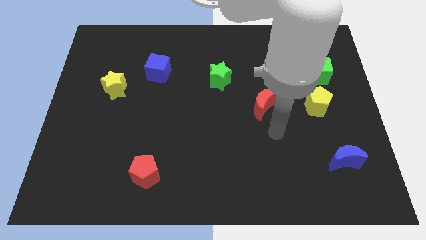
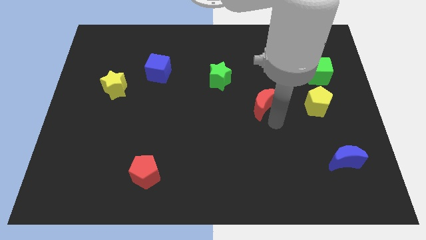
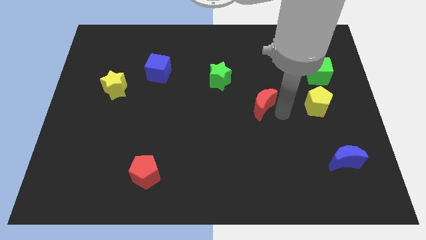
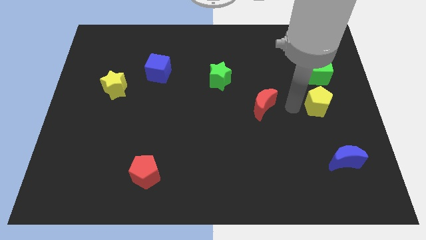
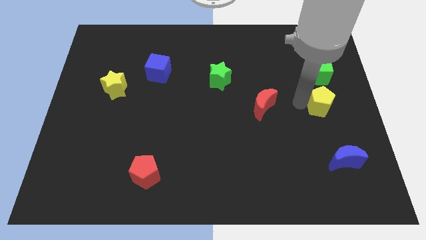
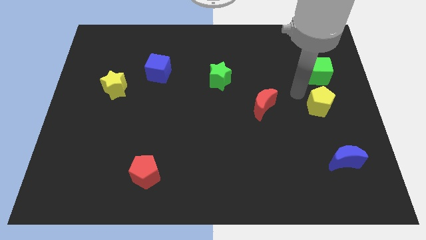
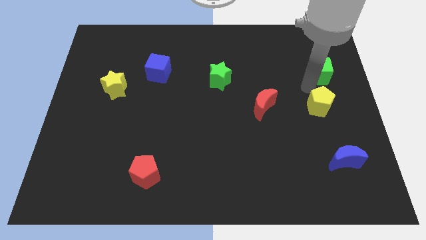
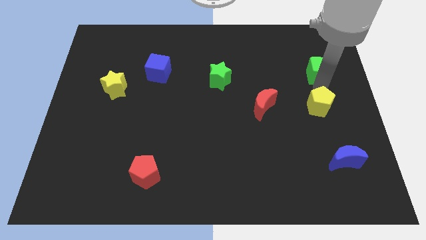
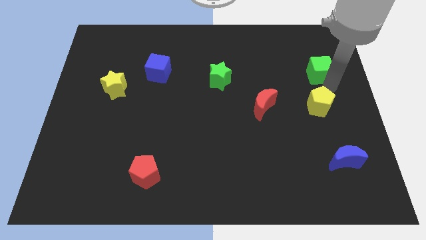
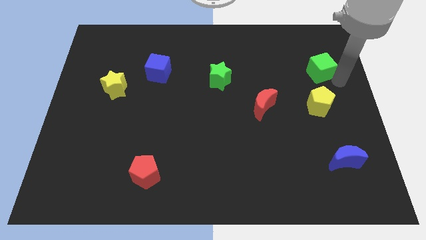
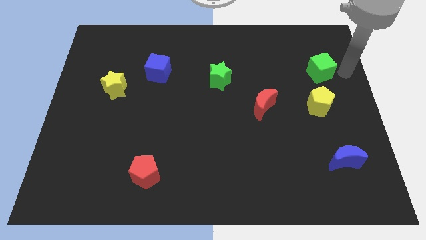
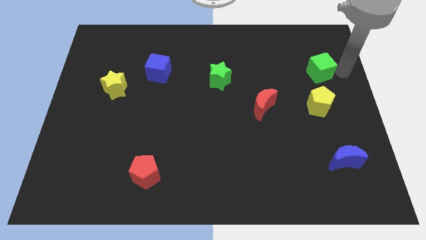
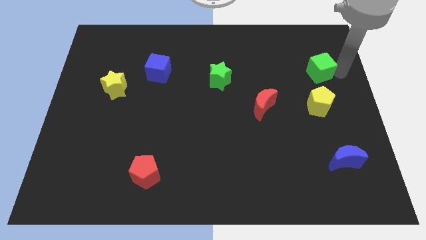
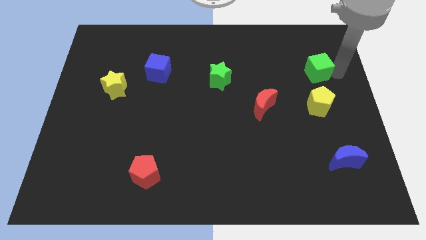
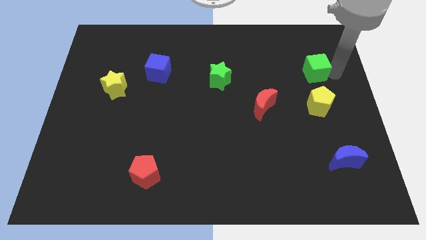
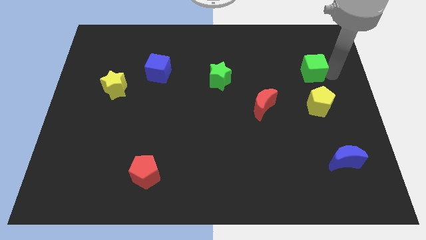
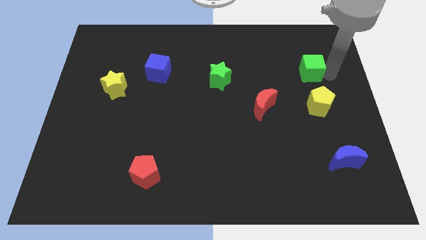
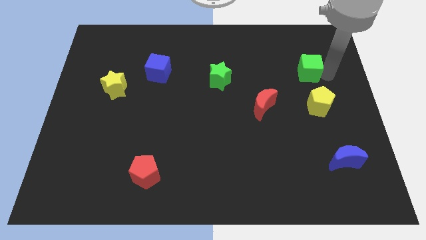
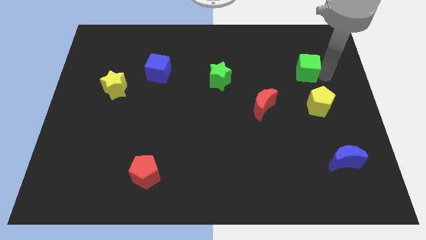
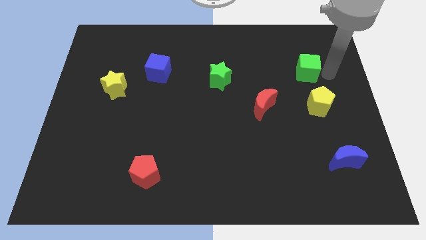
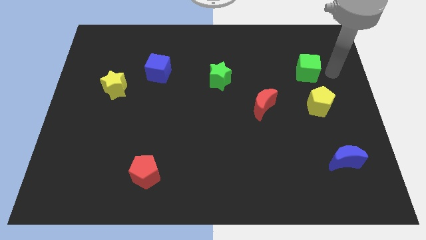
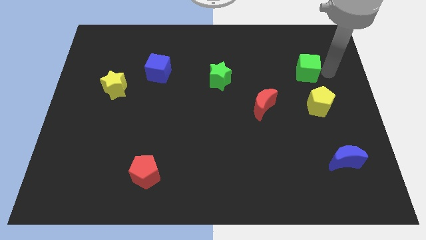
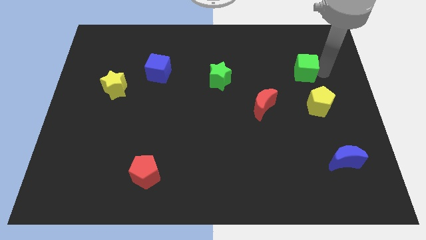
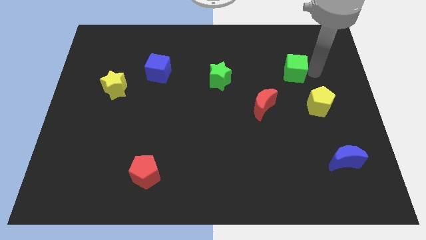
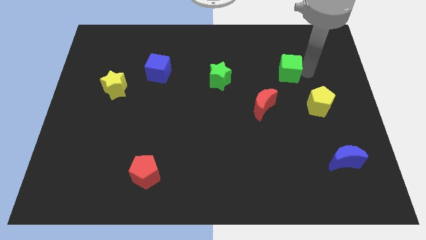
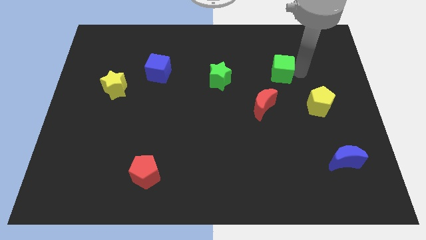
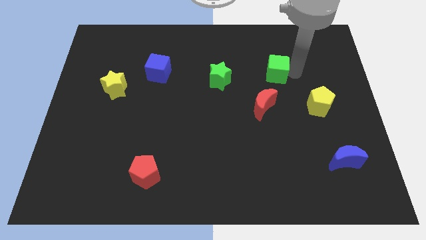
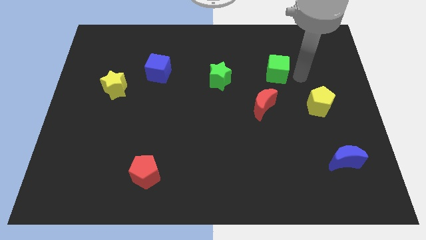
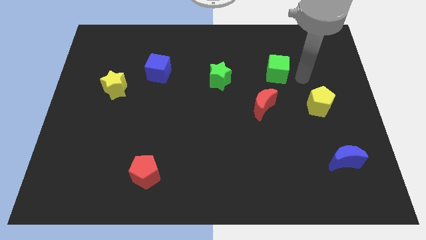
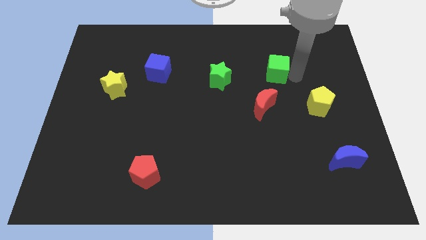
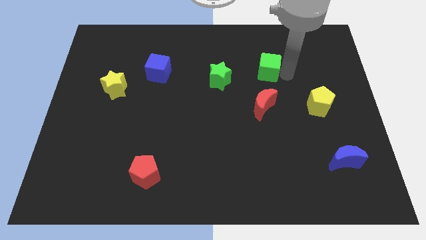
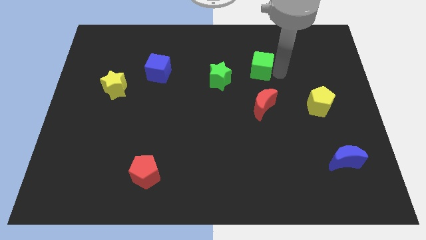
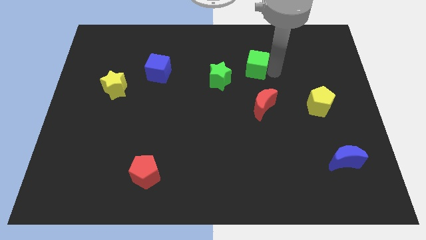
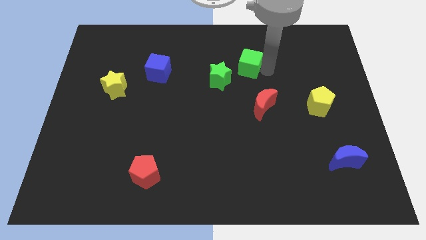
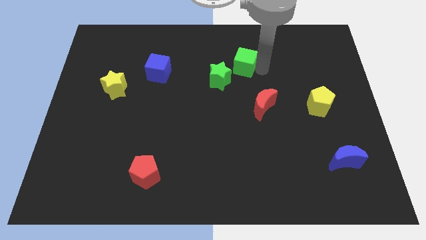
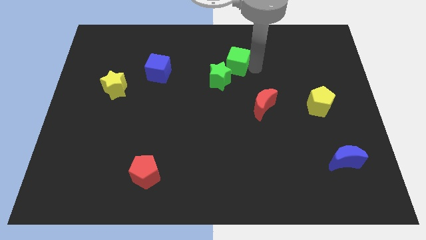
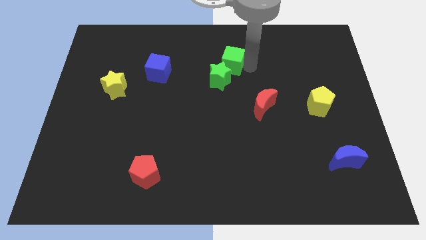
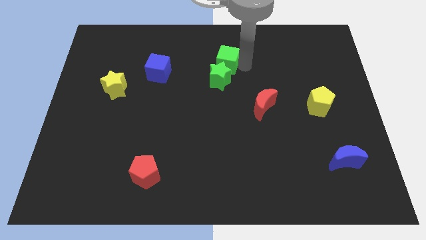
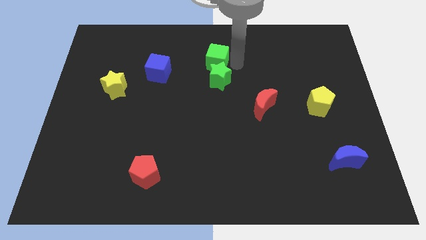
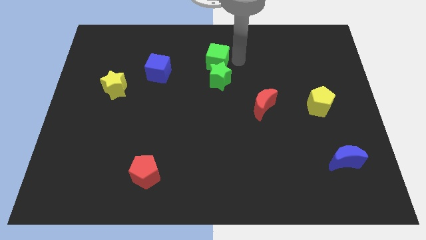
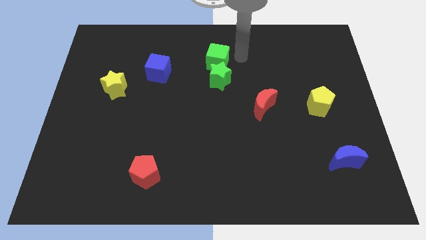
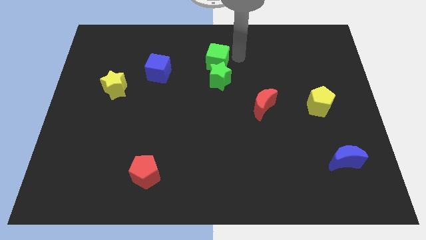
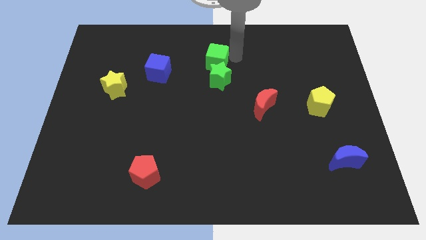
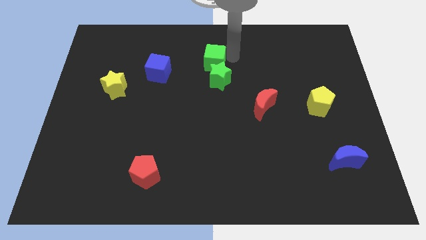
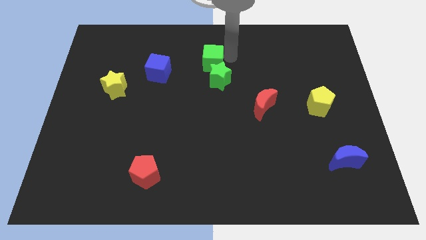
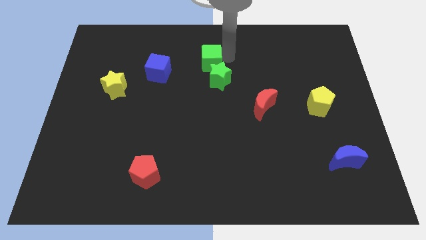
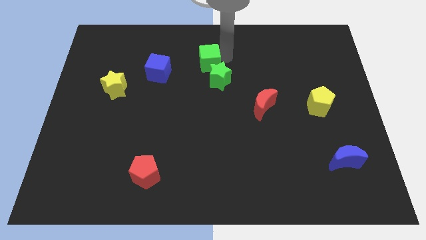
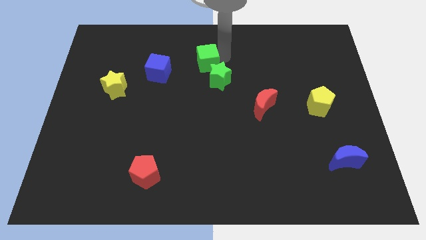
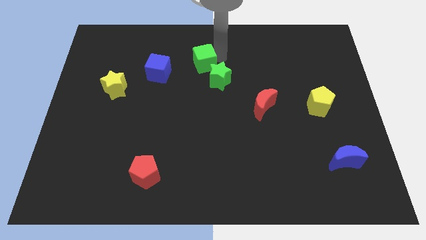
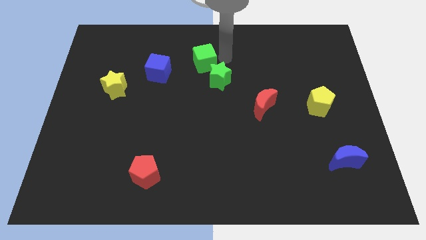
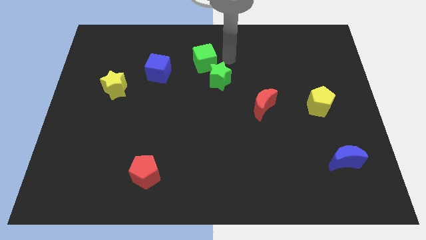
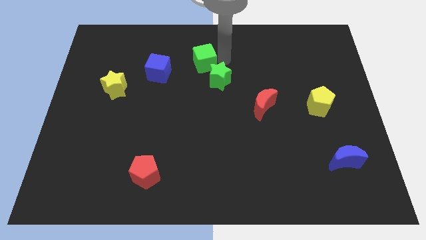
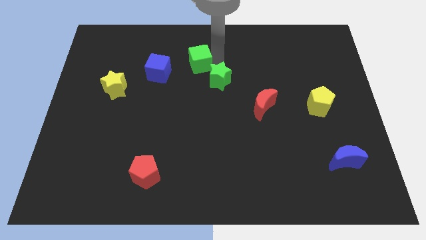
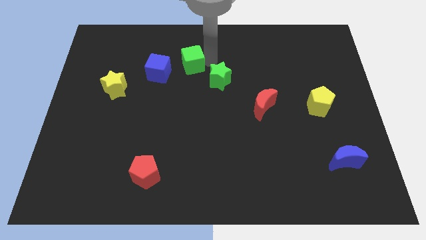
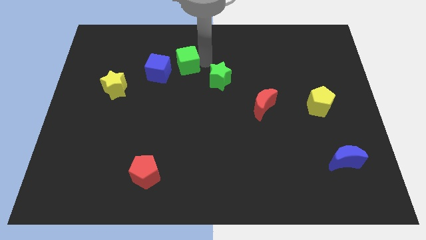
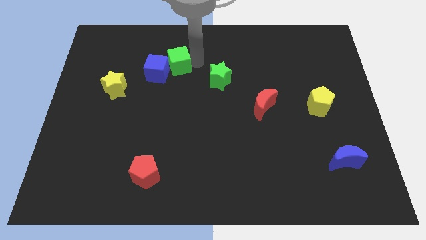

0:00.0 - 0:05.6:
slide the green cube close to the blue cube
